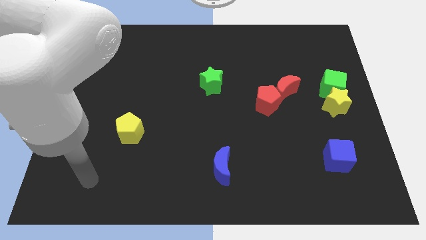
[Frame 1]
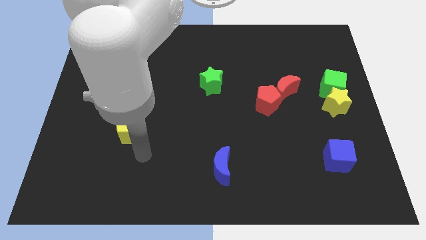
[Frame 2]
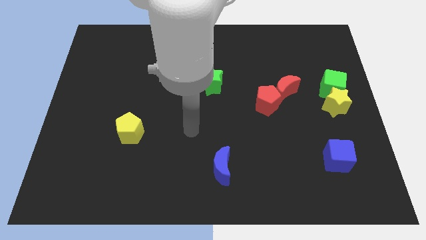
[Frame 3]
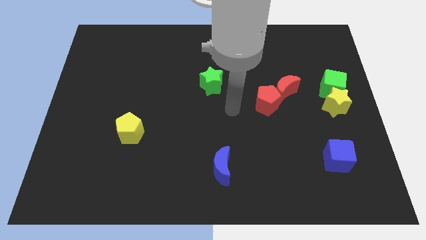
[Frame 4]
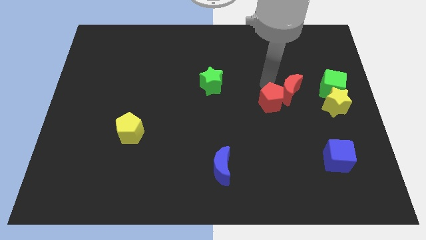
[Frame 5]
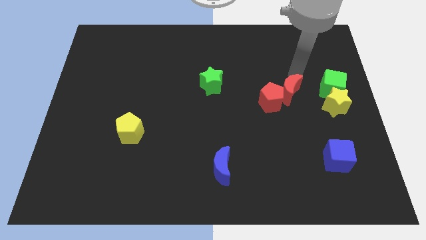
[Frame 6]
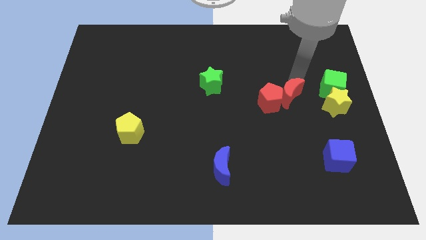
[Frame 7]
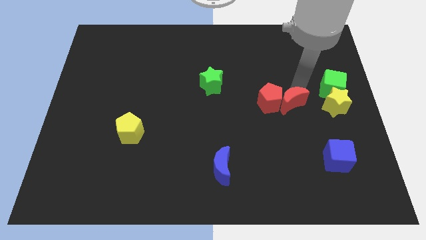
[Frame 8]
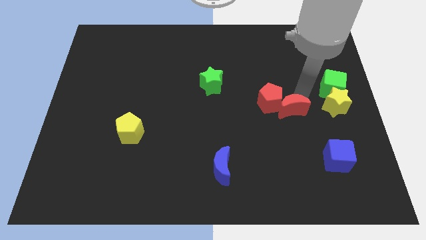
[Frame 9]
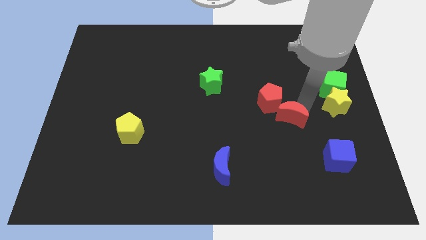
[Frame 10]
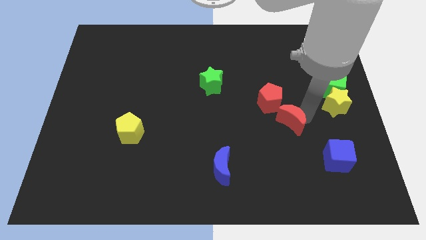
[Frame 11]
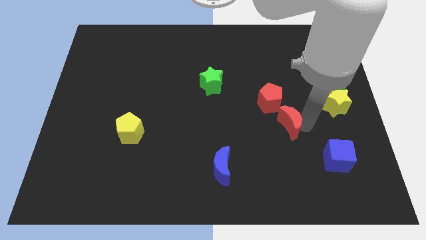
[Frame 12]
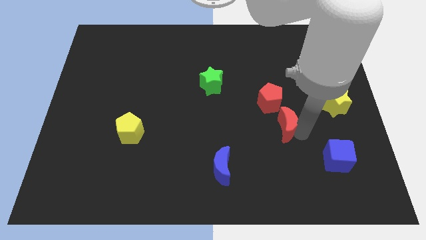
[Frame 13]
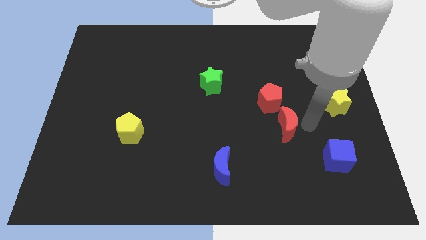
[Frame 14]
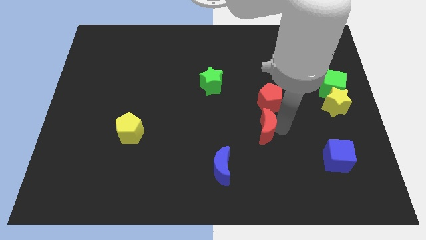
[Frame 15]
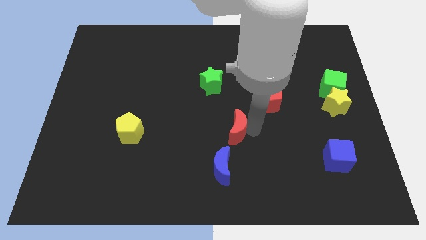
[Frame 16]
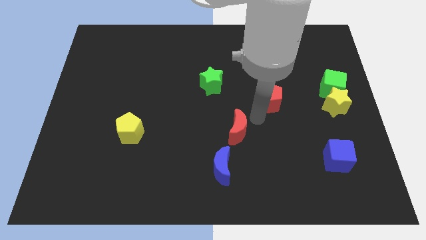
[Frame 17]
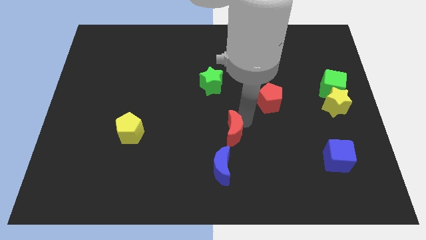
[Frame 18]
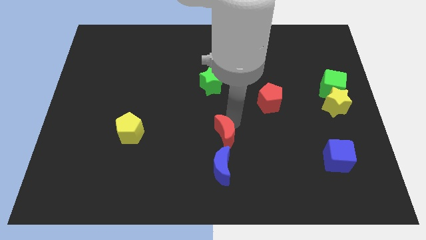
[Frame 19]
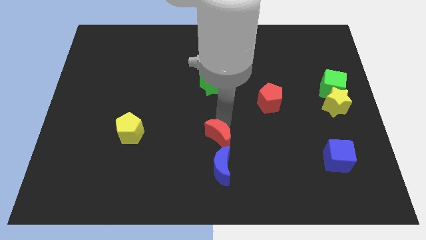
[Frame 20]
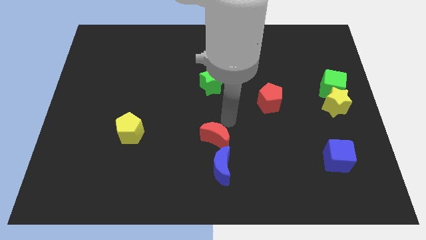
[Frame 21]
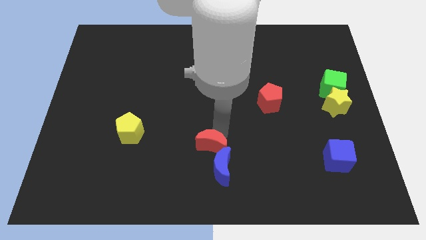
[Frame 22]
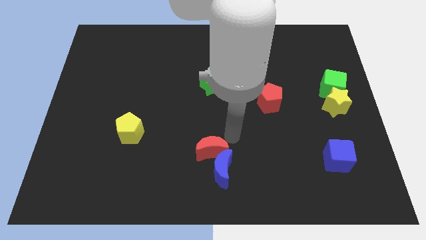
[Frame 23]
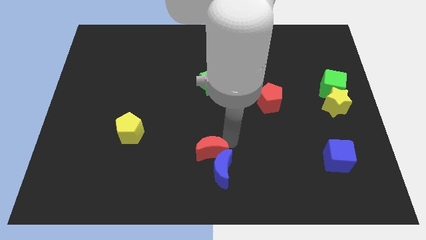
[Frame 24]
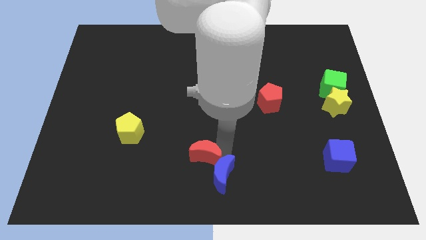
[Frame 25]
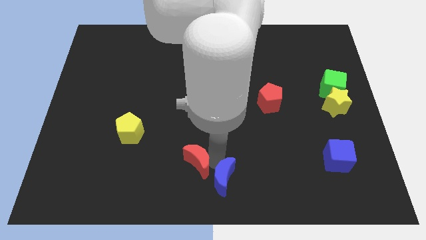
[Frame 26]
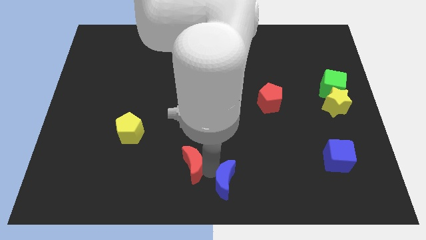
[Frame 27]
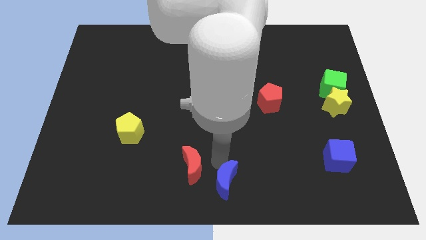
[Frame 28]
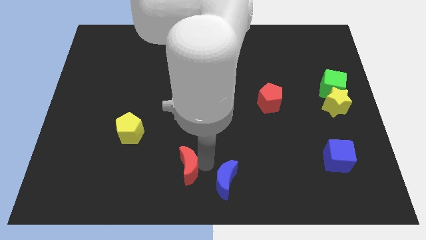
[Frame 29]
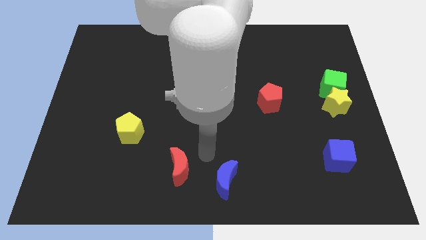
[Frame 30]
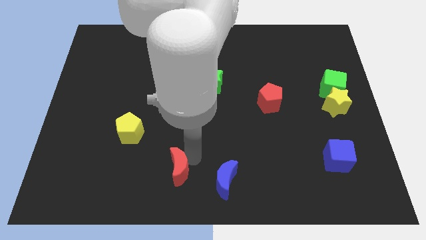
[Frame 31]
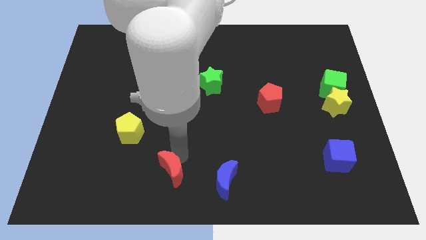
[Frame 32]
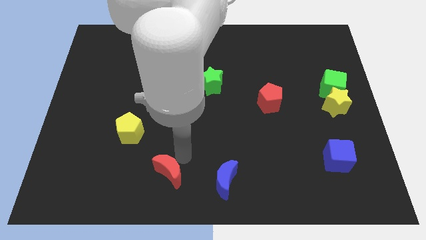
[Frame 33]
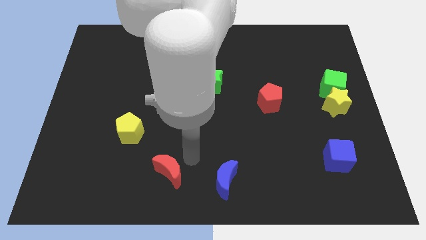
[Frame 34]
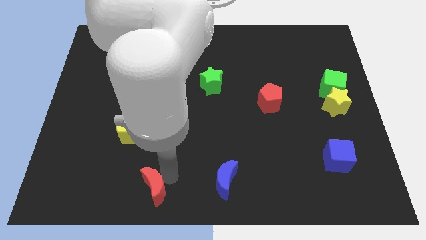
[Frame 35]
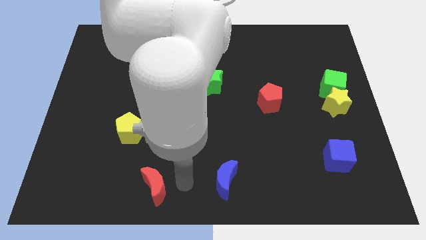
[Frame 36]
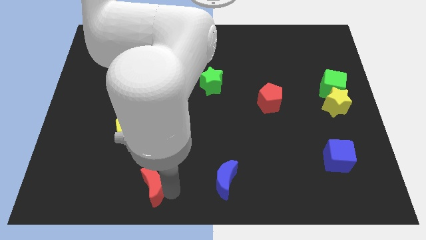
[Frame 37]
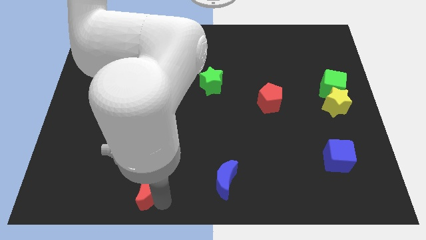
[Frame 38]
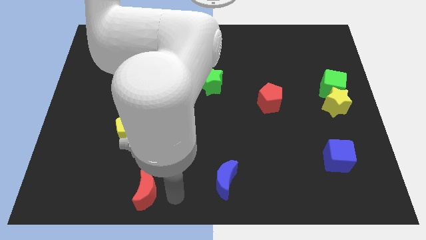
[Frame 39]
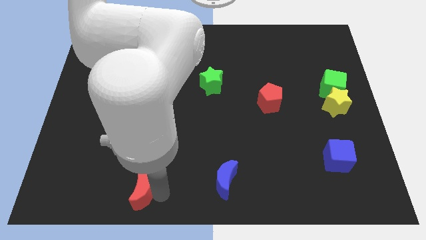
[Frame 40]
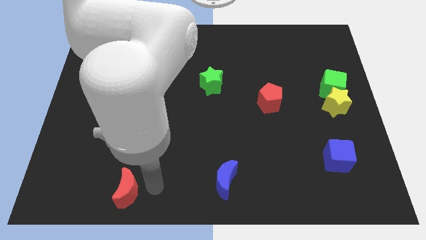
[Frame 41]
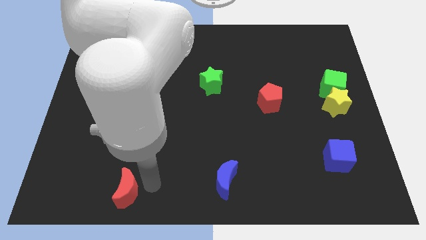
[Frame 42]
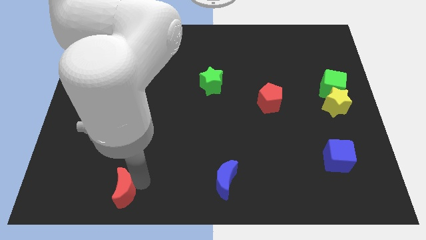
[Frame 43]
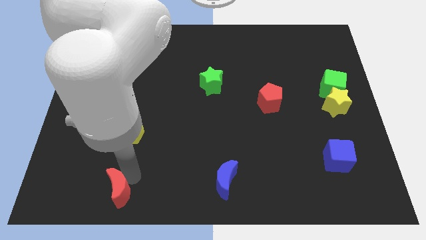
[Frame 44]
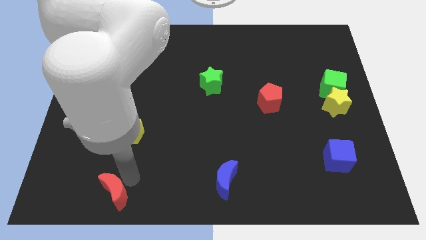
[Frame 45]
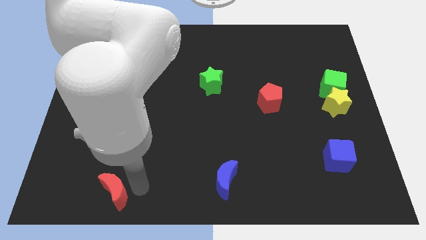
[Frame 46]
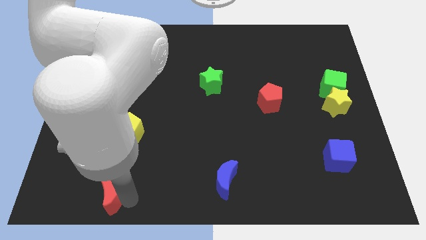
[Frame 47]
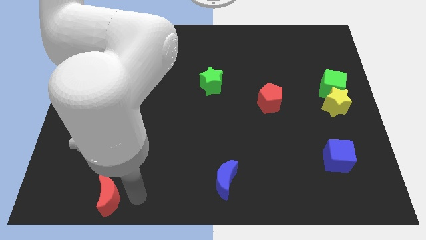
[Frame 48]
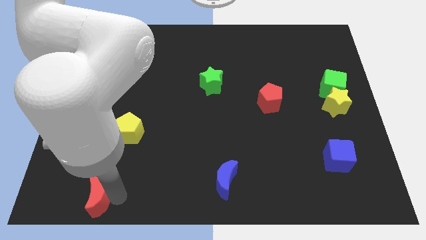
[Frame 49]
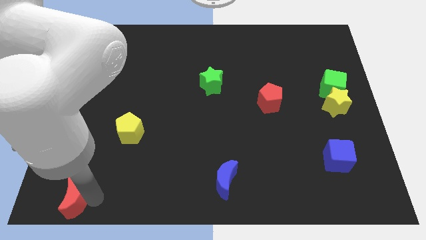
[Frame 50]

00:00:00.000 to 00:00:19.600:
slide the red moon to the bottom left corner

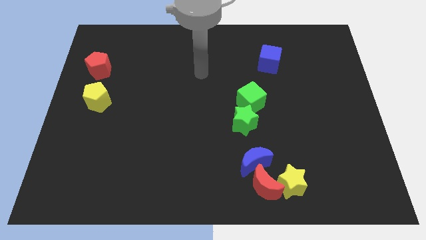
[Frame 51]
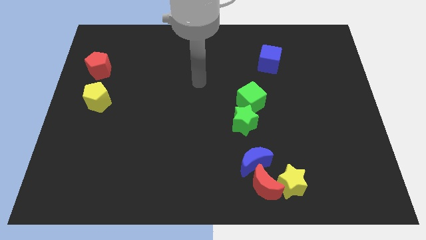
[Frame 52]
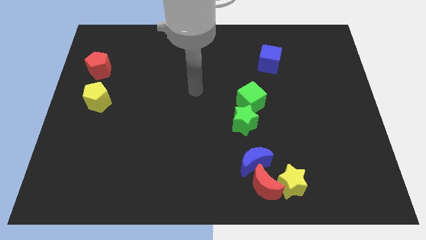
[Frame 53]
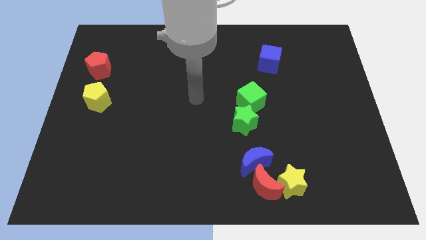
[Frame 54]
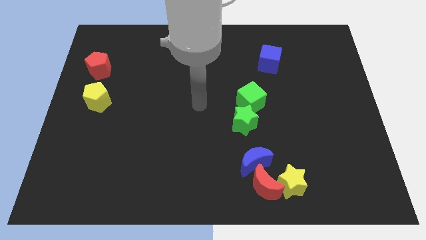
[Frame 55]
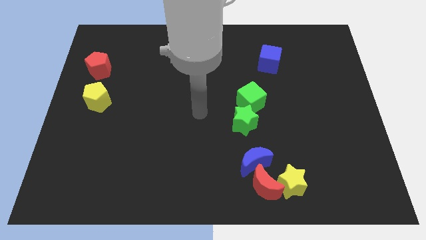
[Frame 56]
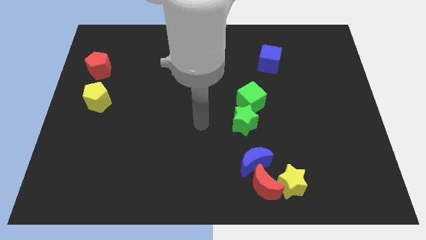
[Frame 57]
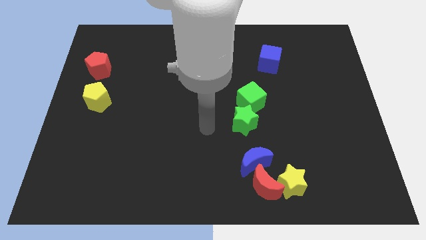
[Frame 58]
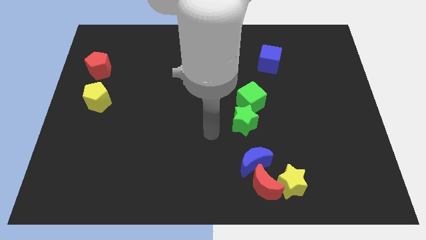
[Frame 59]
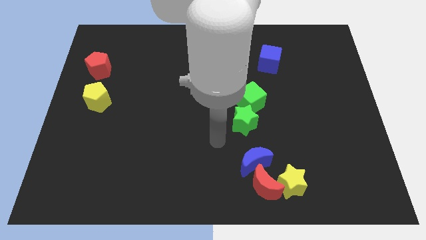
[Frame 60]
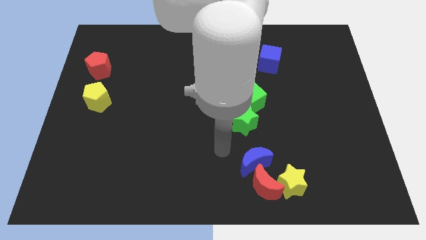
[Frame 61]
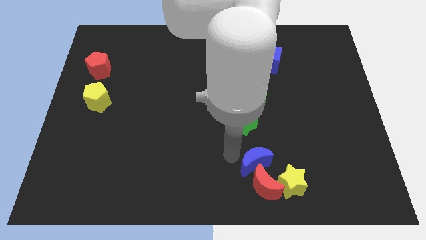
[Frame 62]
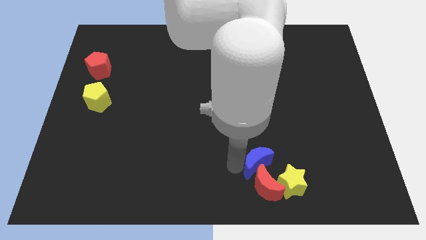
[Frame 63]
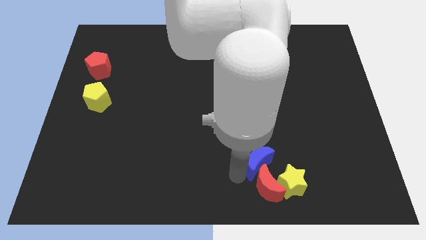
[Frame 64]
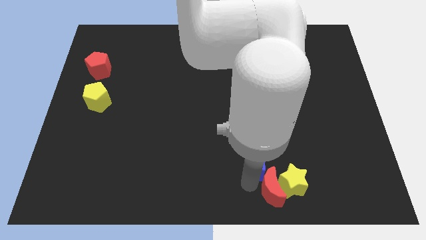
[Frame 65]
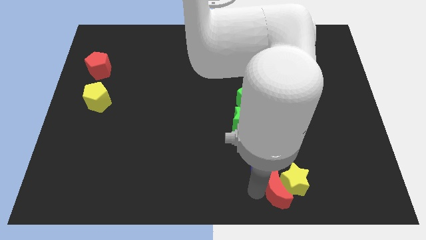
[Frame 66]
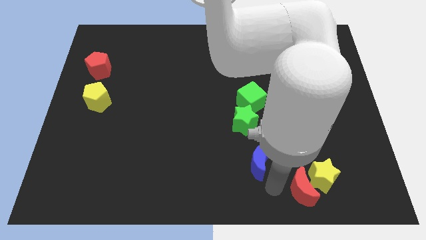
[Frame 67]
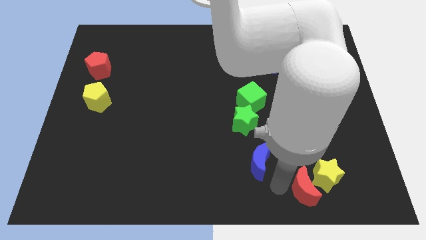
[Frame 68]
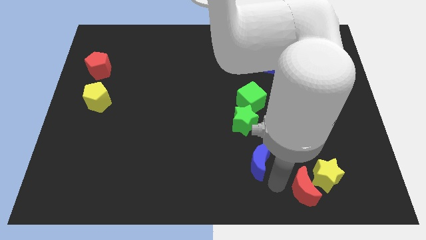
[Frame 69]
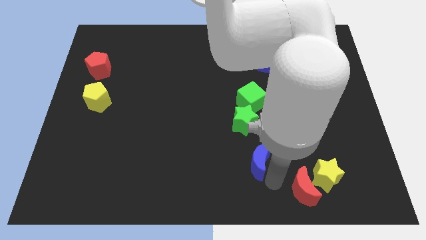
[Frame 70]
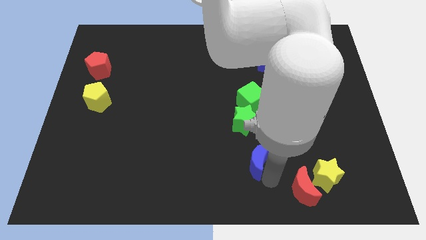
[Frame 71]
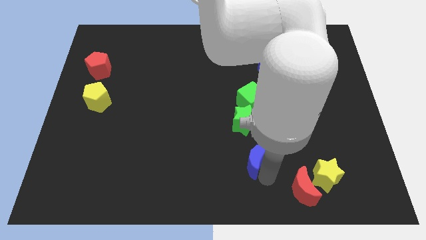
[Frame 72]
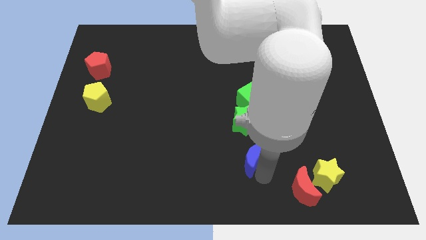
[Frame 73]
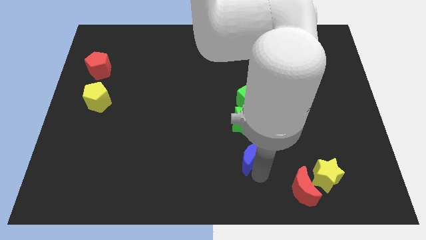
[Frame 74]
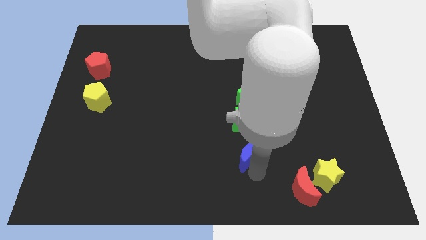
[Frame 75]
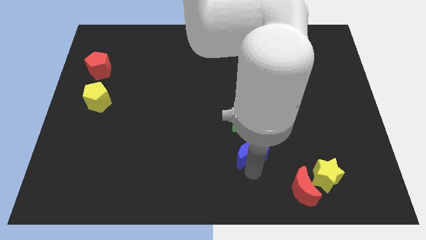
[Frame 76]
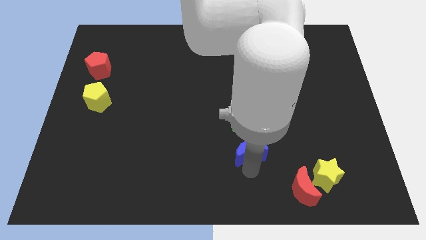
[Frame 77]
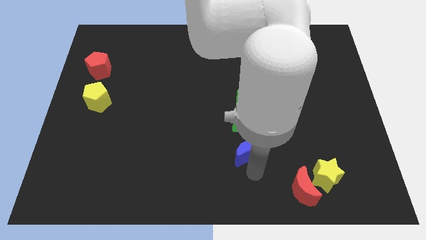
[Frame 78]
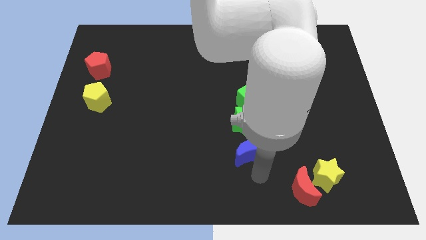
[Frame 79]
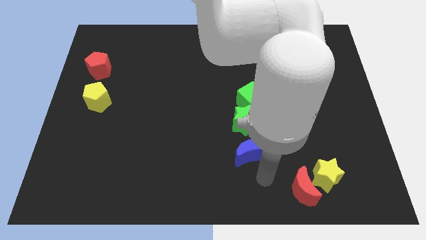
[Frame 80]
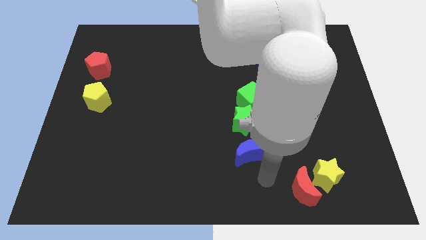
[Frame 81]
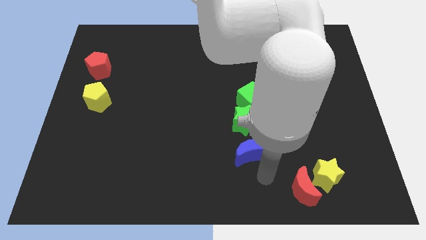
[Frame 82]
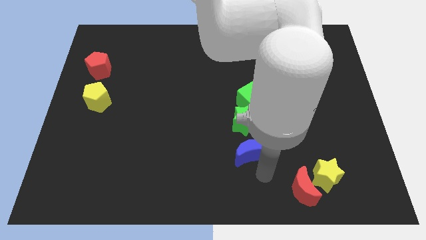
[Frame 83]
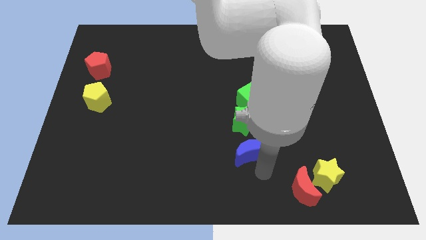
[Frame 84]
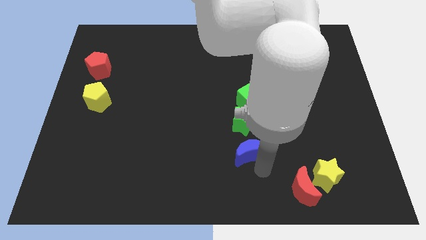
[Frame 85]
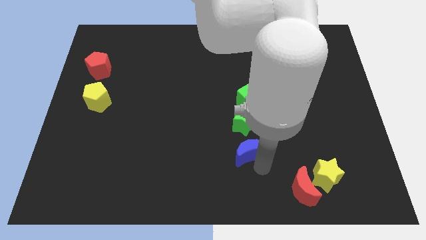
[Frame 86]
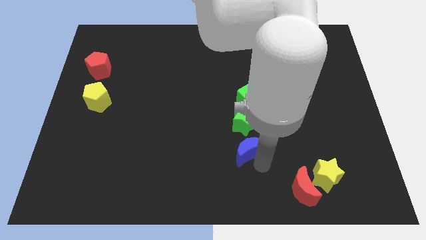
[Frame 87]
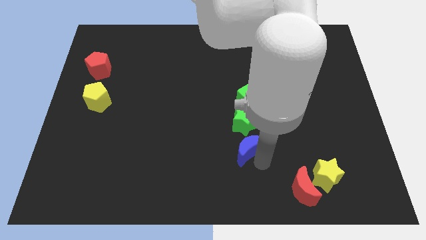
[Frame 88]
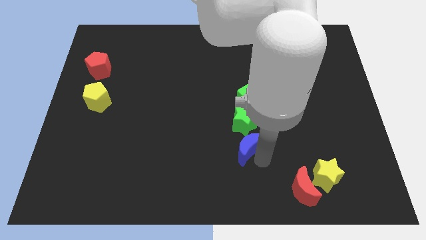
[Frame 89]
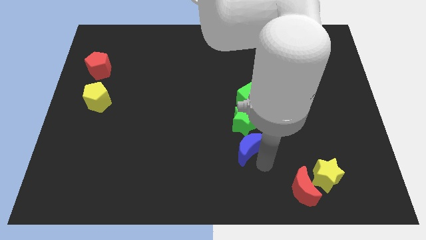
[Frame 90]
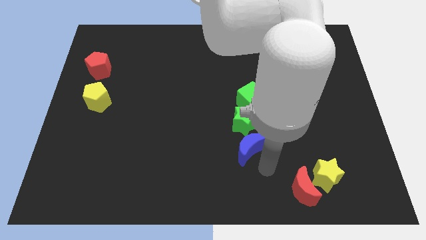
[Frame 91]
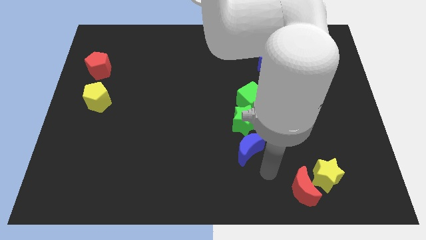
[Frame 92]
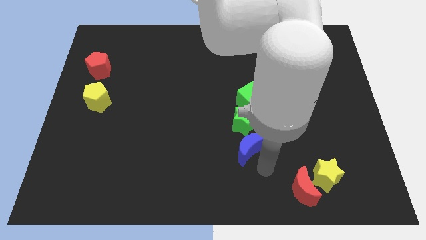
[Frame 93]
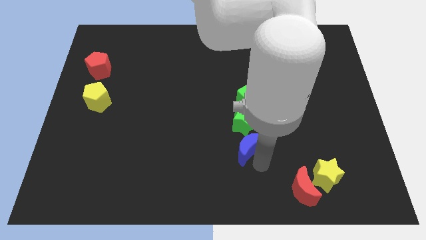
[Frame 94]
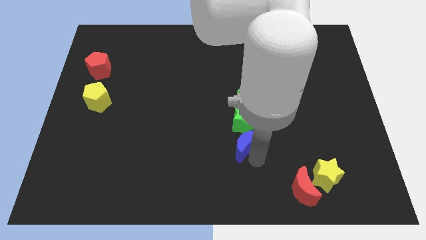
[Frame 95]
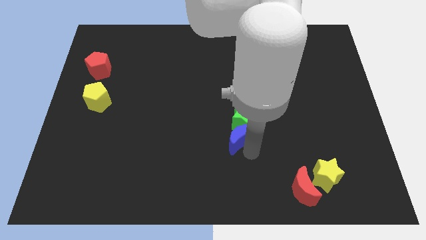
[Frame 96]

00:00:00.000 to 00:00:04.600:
put the blue moon to the center
